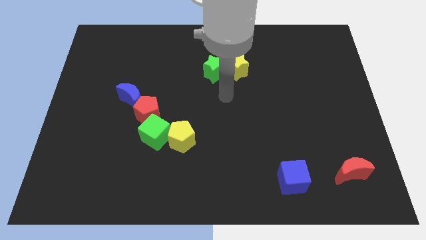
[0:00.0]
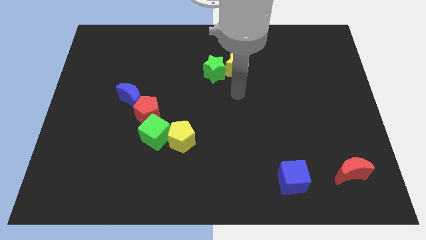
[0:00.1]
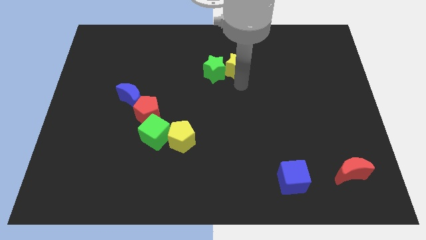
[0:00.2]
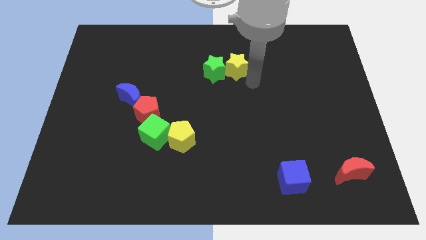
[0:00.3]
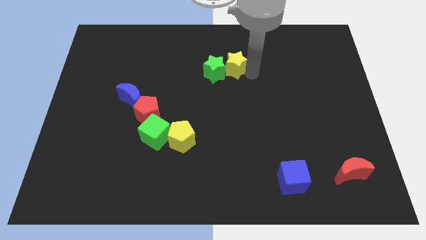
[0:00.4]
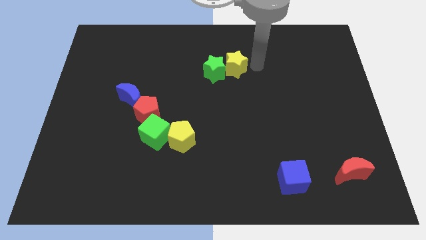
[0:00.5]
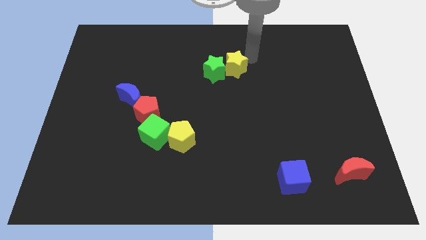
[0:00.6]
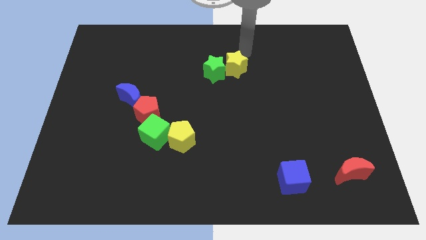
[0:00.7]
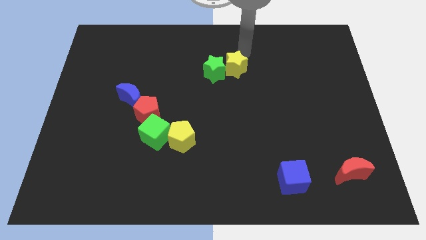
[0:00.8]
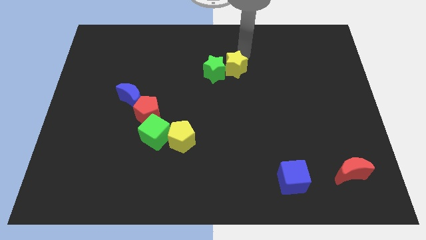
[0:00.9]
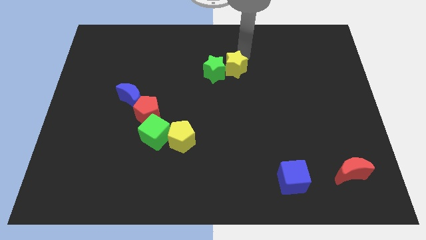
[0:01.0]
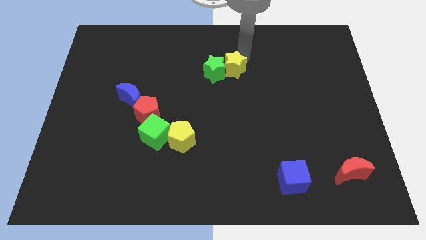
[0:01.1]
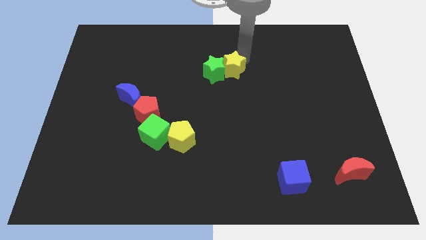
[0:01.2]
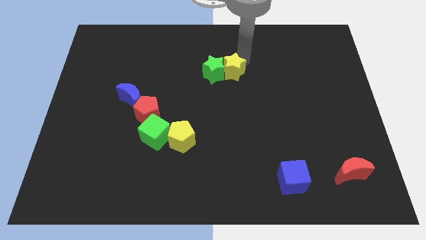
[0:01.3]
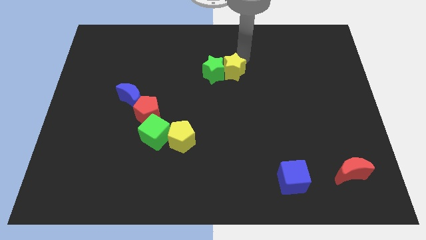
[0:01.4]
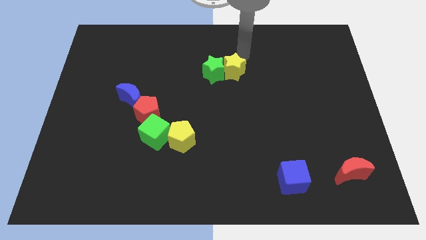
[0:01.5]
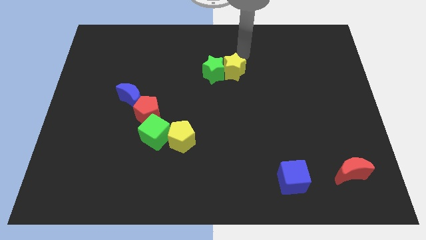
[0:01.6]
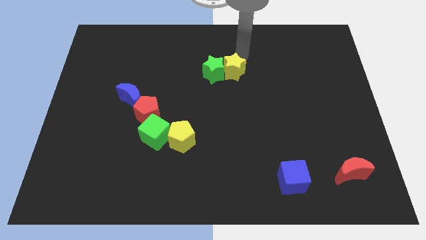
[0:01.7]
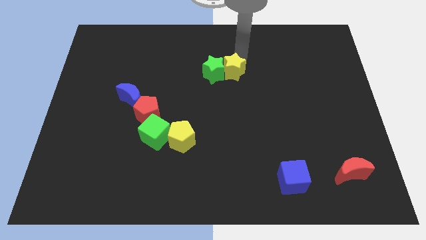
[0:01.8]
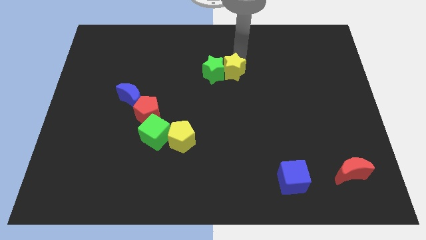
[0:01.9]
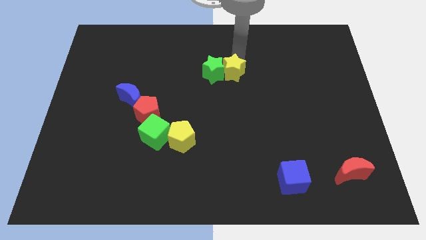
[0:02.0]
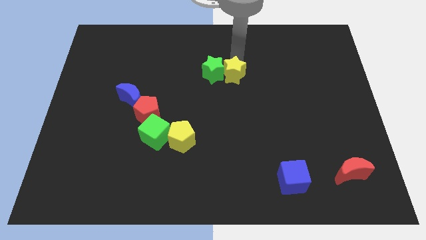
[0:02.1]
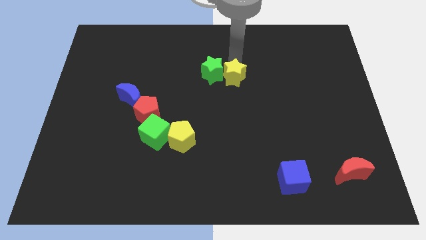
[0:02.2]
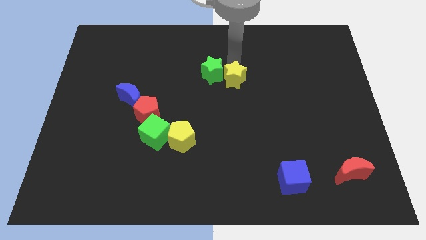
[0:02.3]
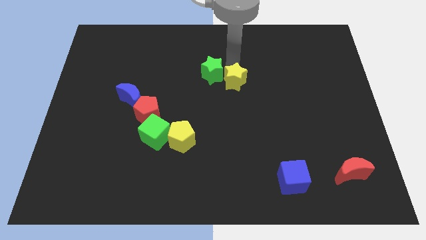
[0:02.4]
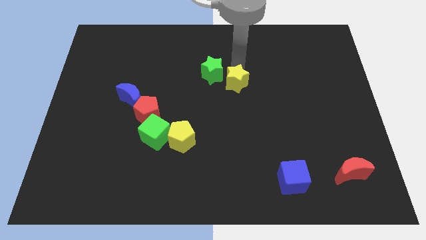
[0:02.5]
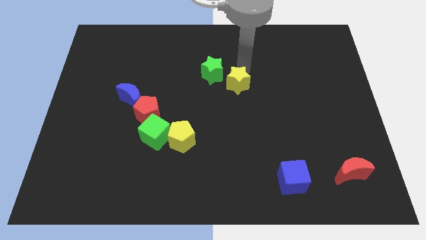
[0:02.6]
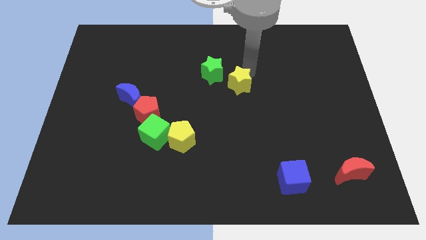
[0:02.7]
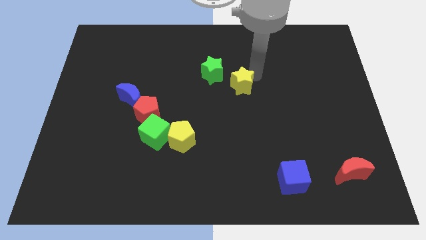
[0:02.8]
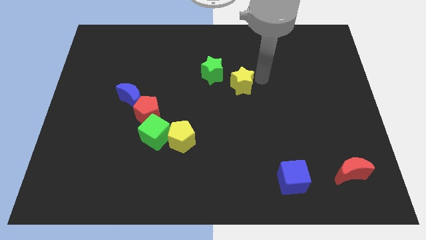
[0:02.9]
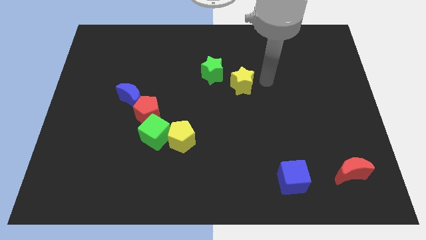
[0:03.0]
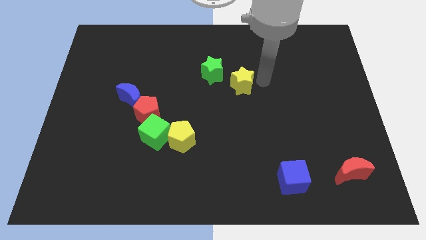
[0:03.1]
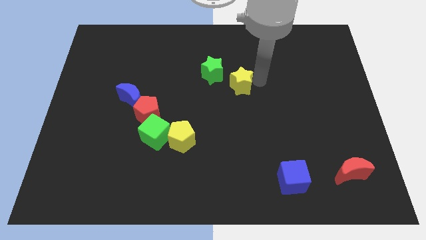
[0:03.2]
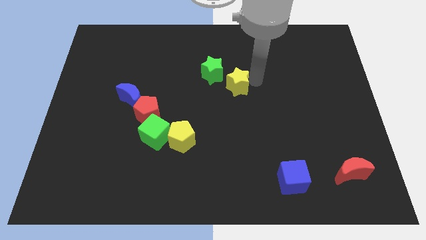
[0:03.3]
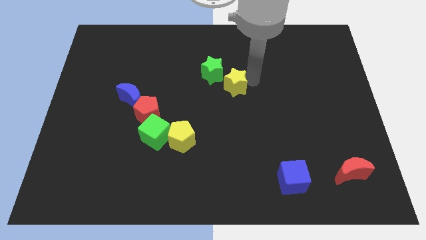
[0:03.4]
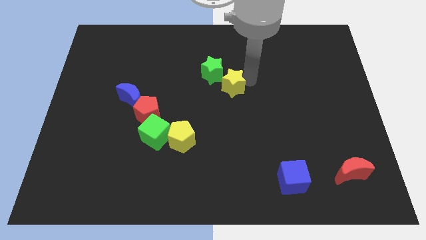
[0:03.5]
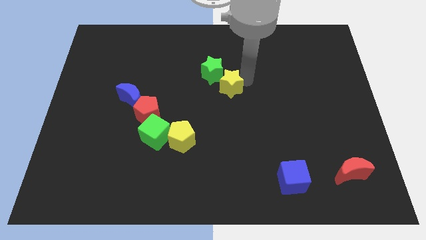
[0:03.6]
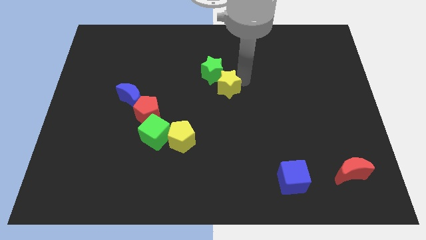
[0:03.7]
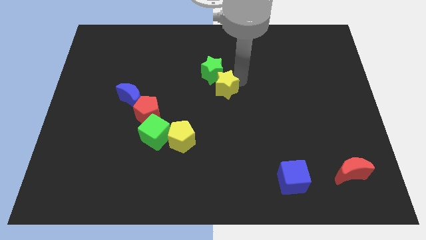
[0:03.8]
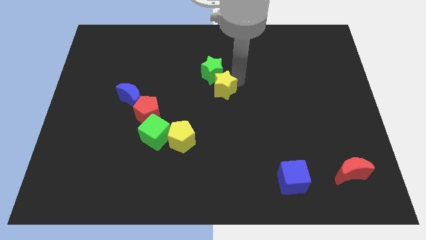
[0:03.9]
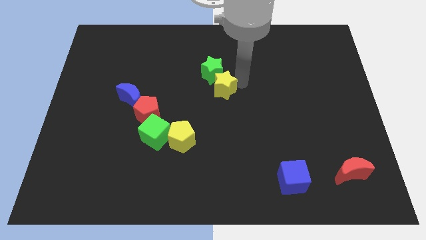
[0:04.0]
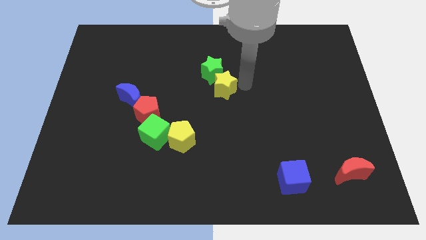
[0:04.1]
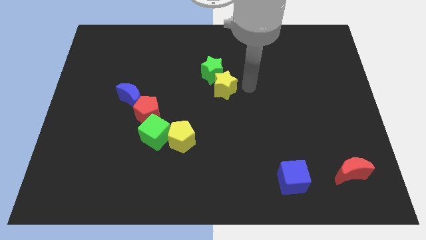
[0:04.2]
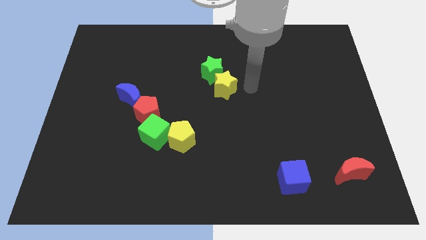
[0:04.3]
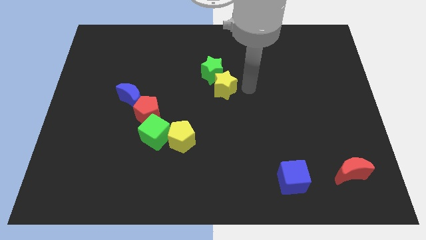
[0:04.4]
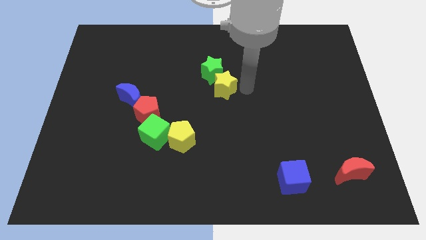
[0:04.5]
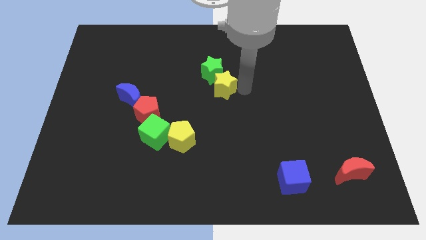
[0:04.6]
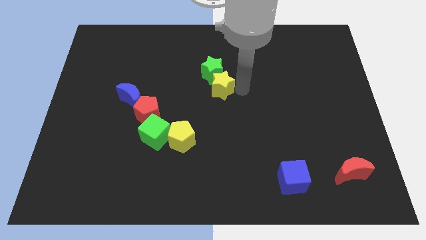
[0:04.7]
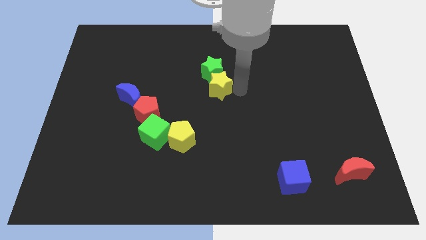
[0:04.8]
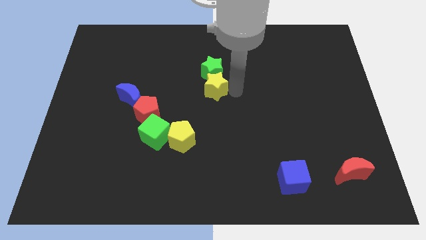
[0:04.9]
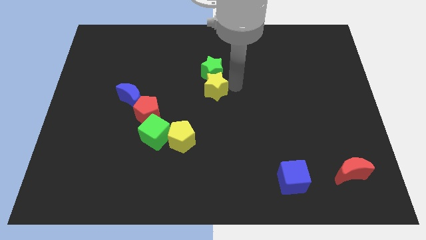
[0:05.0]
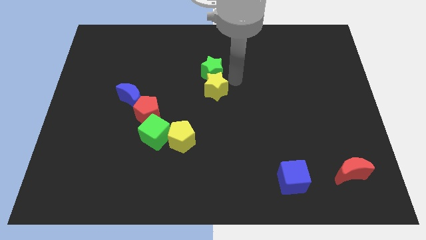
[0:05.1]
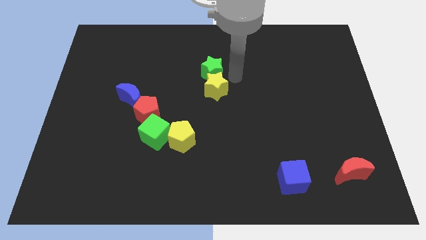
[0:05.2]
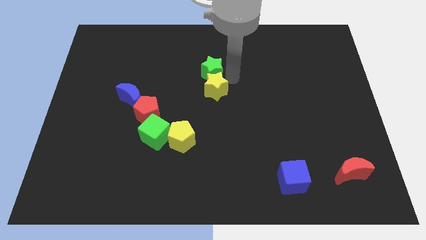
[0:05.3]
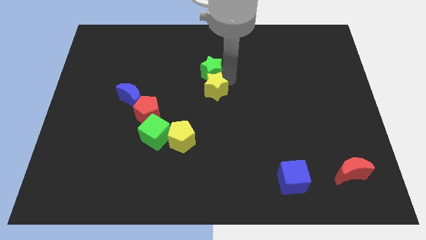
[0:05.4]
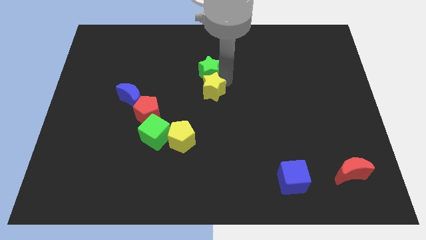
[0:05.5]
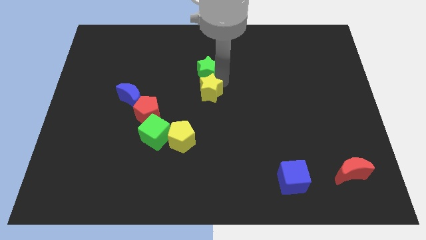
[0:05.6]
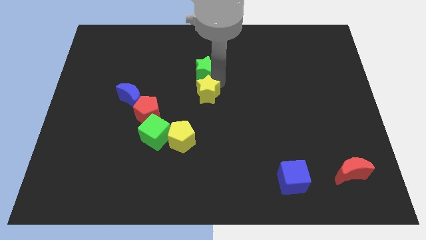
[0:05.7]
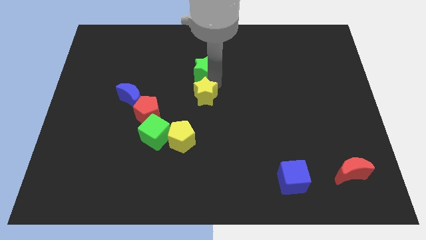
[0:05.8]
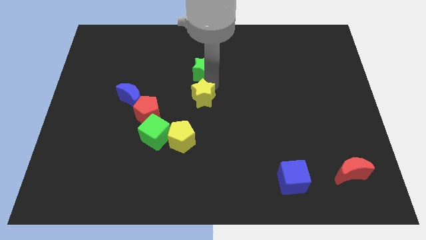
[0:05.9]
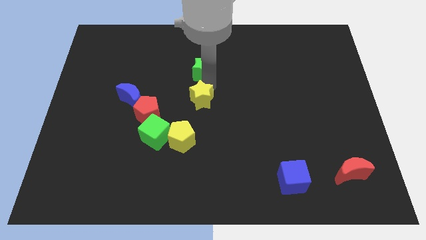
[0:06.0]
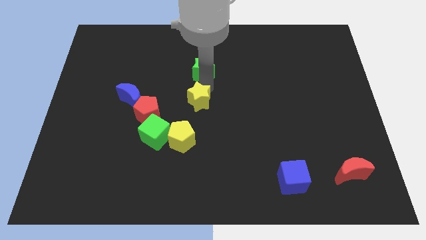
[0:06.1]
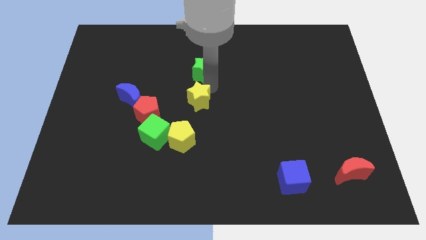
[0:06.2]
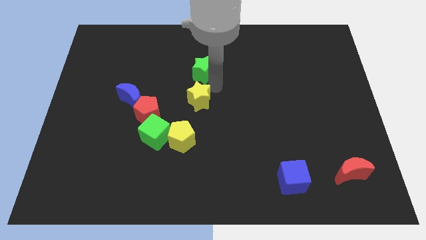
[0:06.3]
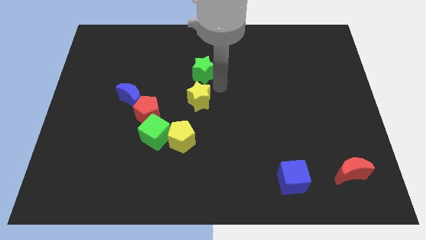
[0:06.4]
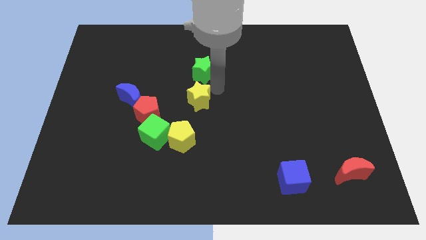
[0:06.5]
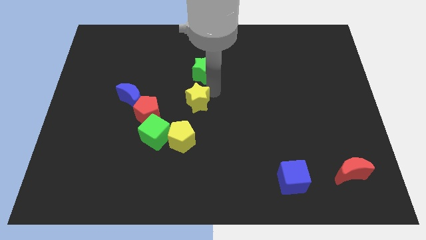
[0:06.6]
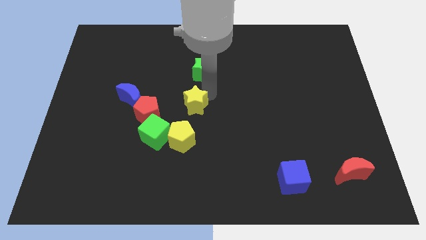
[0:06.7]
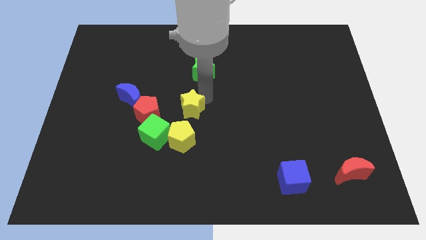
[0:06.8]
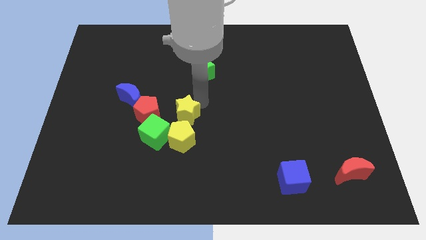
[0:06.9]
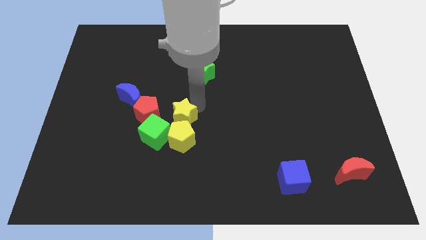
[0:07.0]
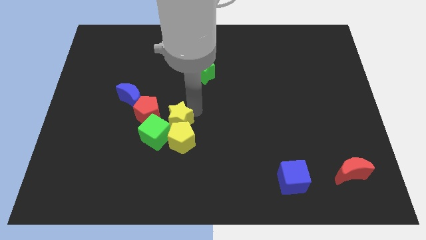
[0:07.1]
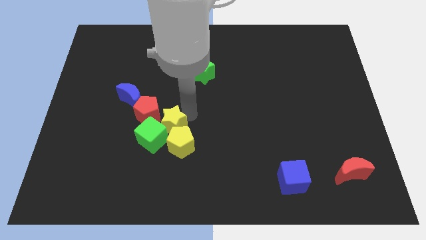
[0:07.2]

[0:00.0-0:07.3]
slide the yellow star close to the green cube
